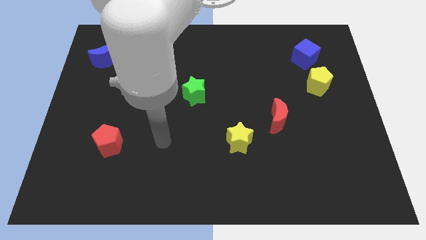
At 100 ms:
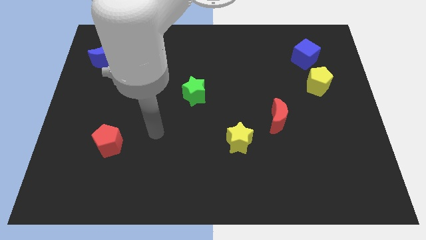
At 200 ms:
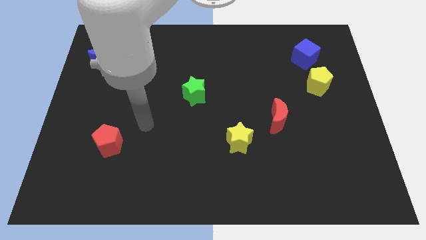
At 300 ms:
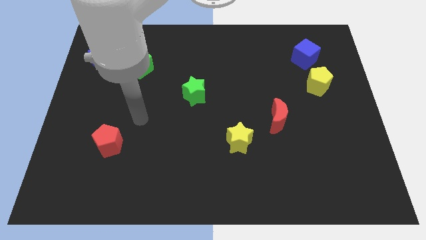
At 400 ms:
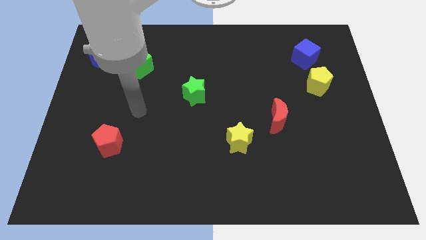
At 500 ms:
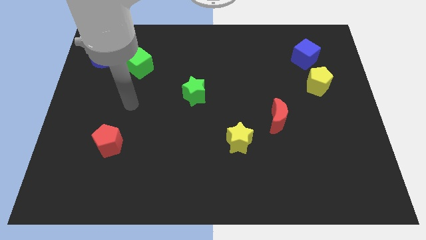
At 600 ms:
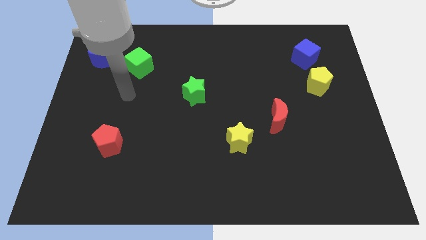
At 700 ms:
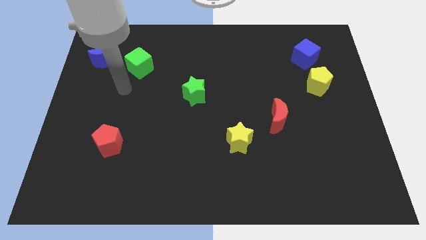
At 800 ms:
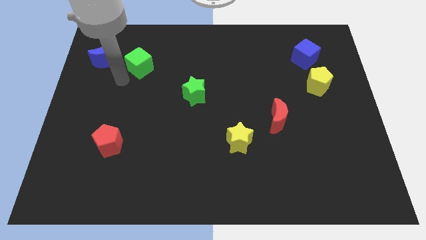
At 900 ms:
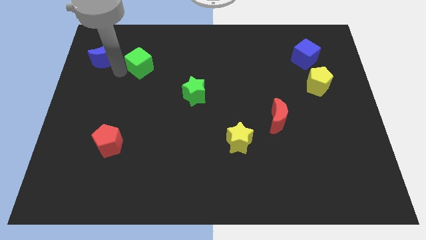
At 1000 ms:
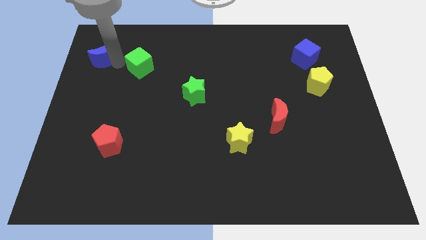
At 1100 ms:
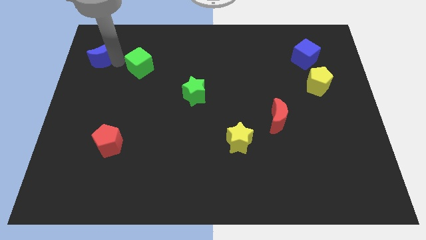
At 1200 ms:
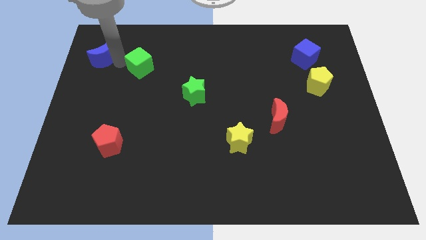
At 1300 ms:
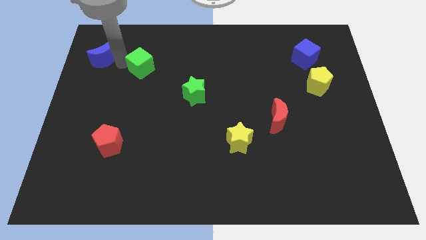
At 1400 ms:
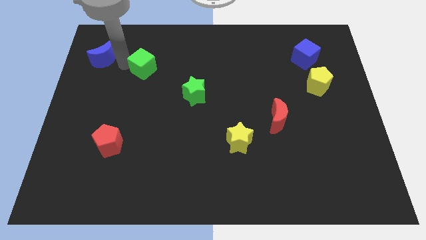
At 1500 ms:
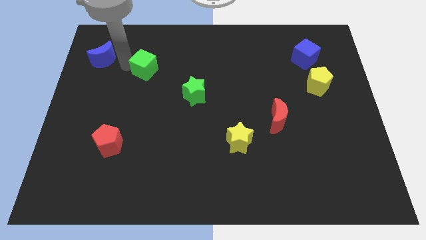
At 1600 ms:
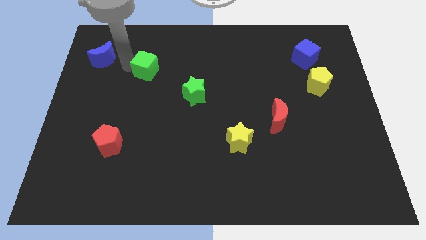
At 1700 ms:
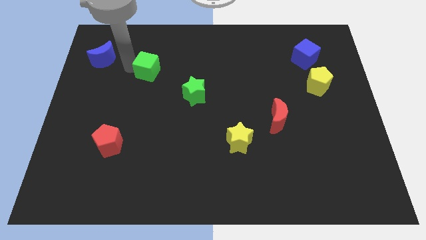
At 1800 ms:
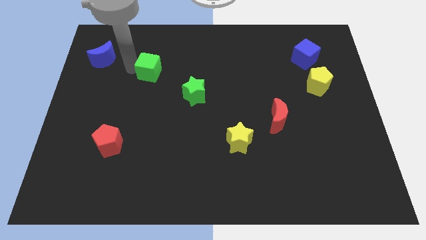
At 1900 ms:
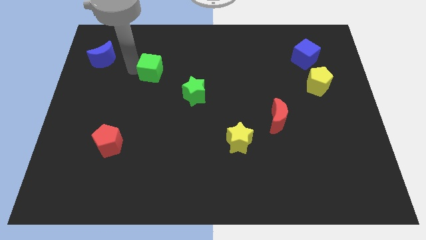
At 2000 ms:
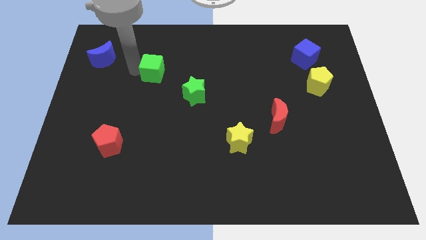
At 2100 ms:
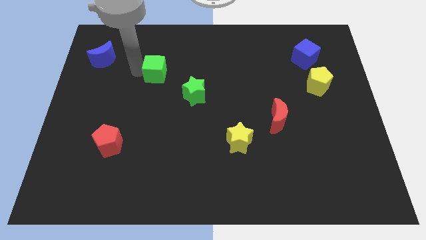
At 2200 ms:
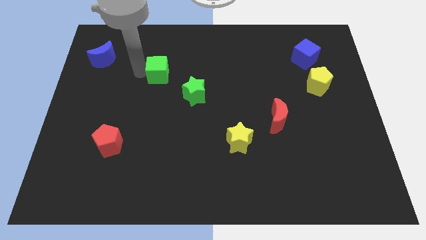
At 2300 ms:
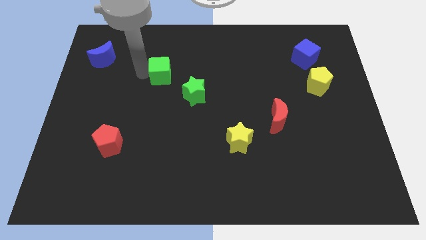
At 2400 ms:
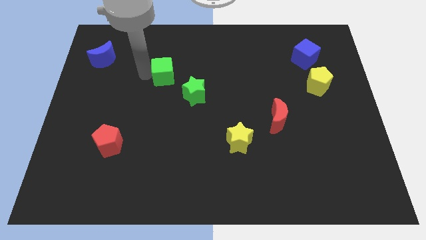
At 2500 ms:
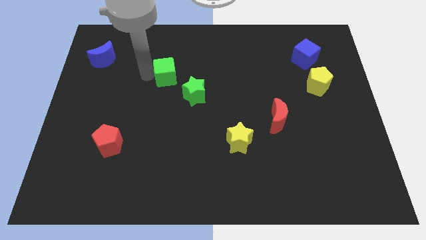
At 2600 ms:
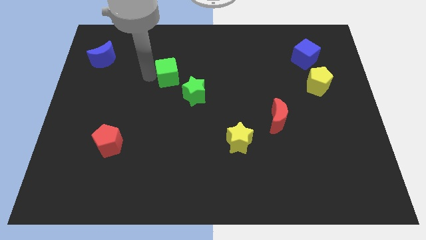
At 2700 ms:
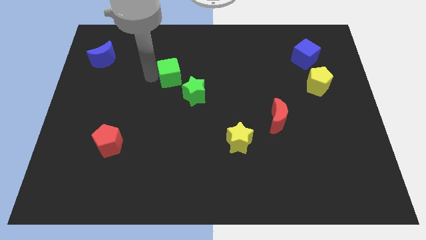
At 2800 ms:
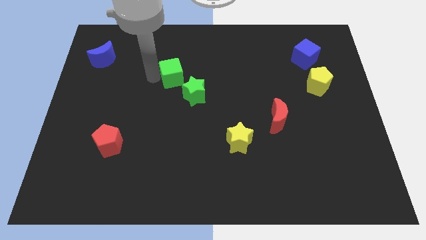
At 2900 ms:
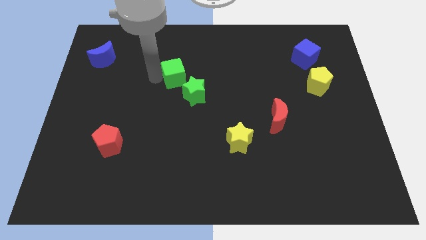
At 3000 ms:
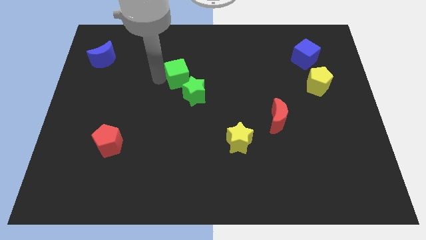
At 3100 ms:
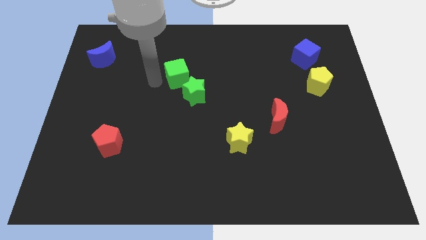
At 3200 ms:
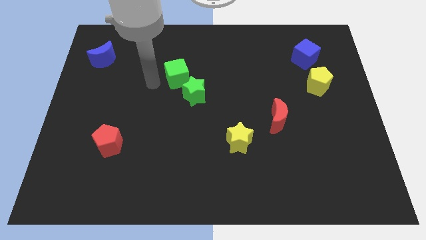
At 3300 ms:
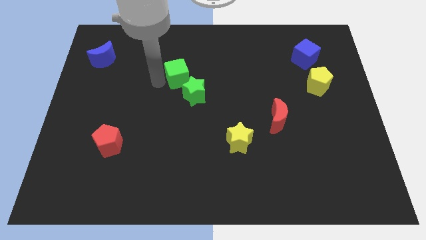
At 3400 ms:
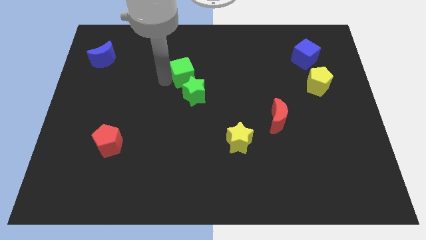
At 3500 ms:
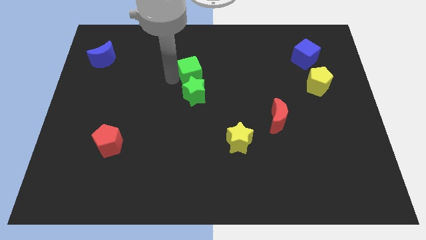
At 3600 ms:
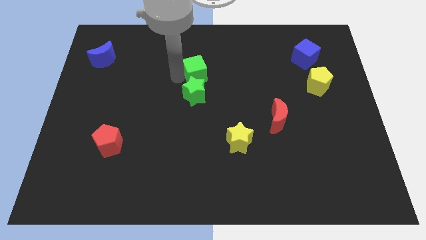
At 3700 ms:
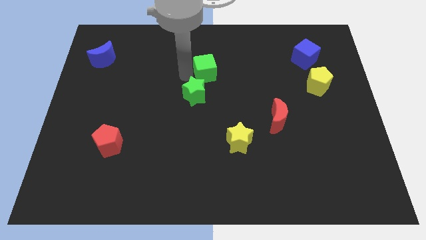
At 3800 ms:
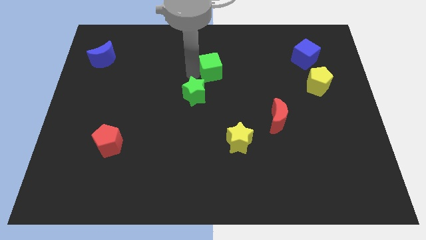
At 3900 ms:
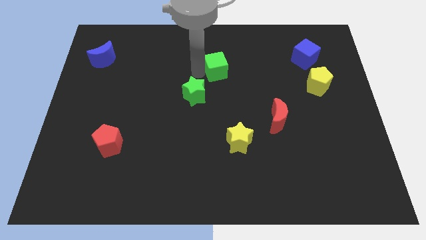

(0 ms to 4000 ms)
slide the green cube to the right

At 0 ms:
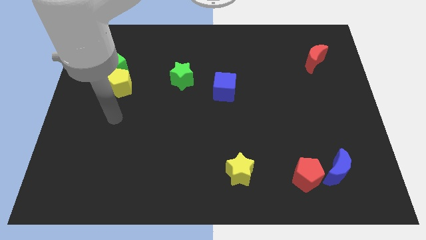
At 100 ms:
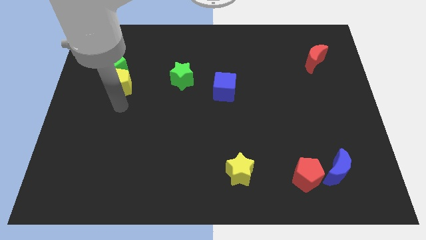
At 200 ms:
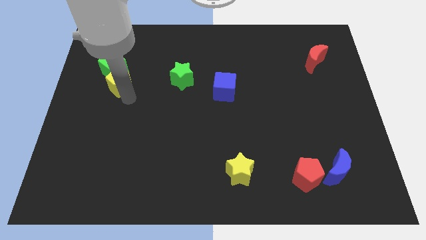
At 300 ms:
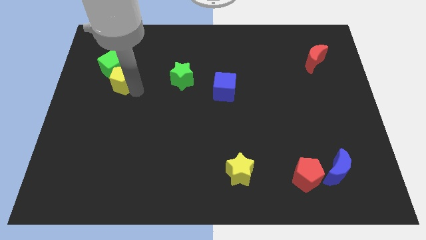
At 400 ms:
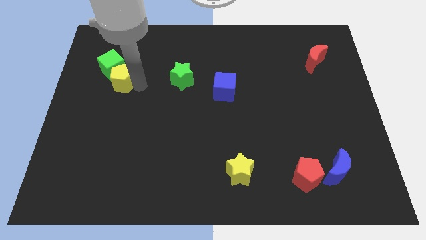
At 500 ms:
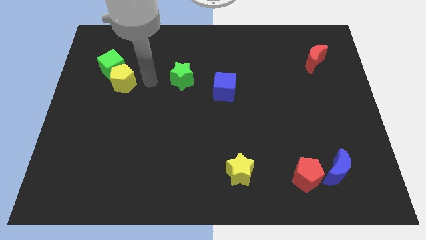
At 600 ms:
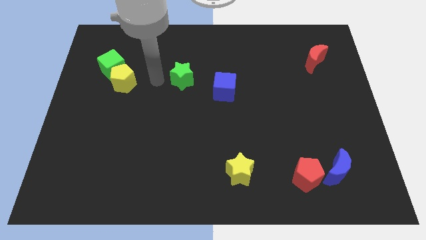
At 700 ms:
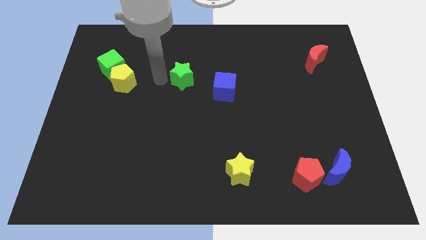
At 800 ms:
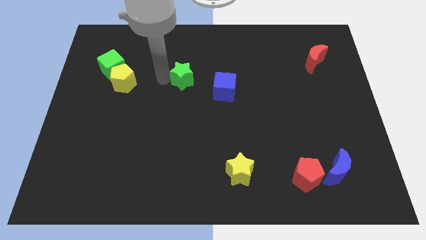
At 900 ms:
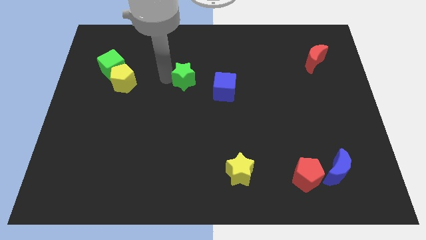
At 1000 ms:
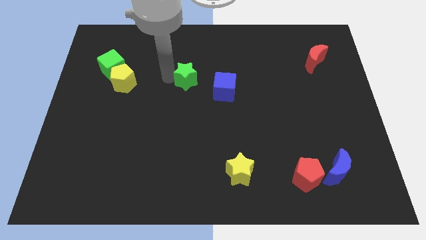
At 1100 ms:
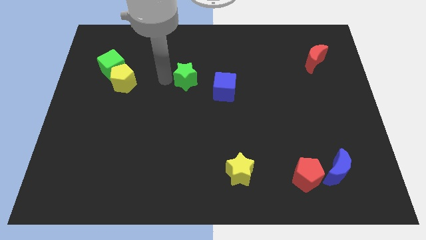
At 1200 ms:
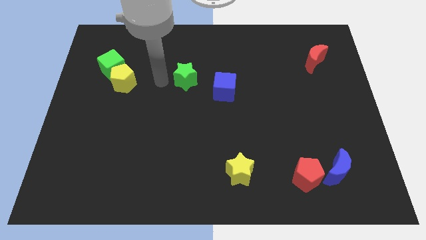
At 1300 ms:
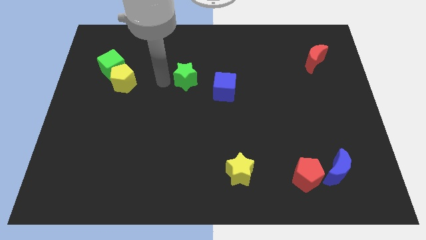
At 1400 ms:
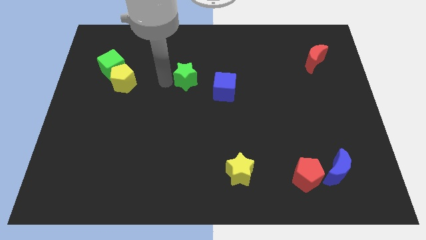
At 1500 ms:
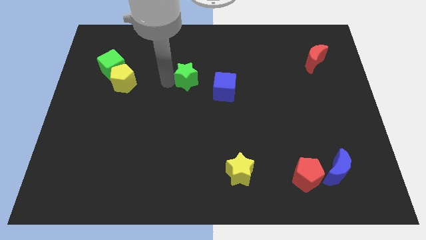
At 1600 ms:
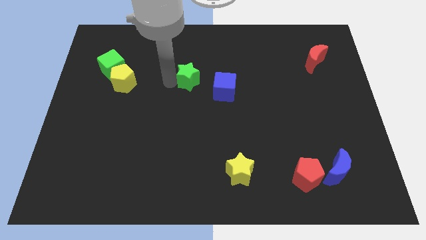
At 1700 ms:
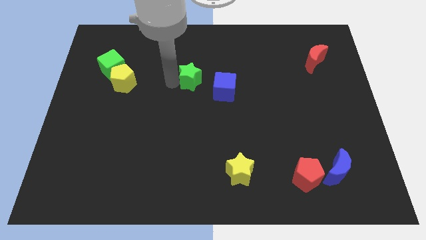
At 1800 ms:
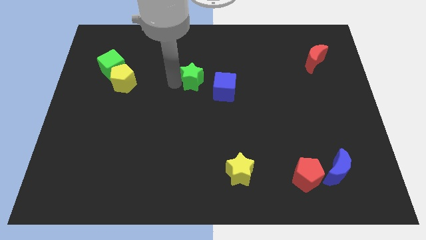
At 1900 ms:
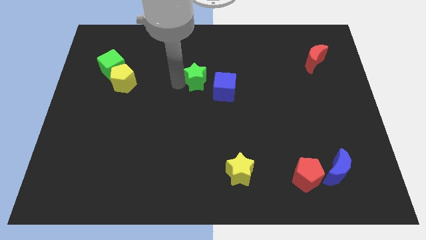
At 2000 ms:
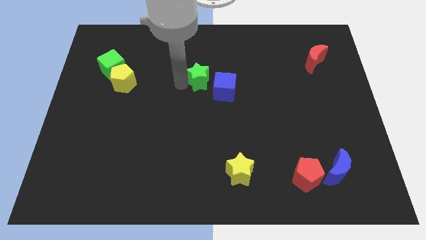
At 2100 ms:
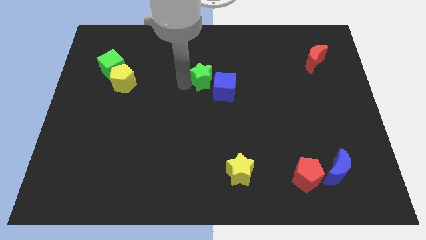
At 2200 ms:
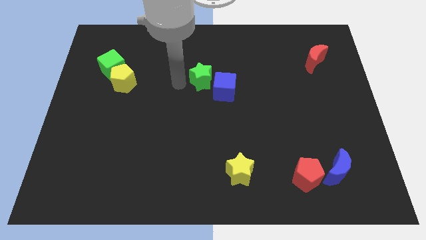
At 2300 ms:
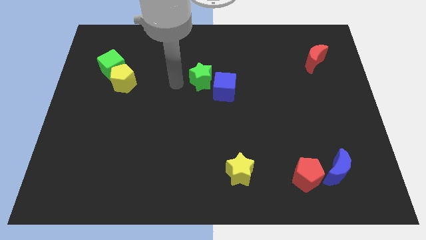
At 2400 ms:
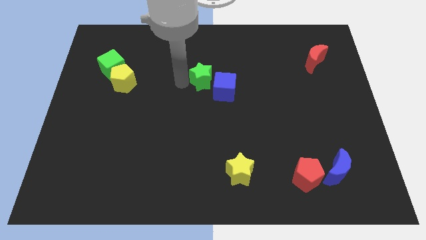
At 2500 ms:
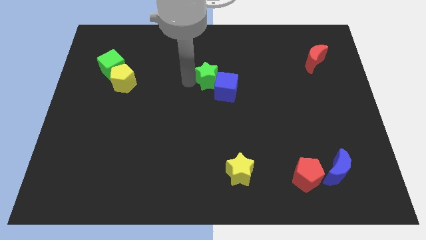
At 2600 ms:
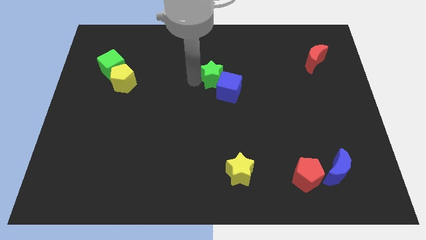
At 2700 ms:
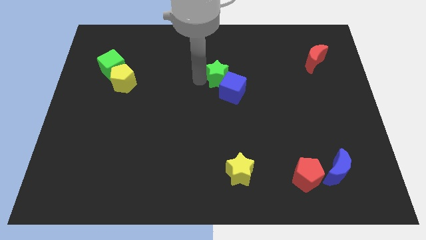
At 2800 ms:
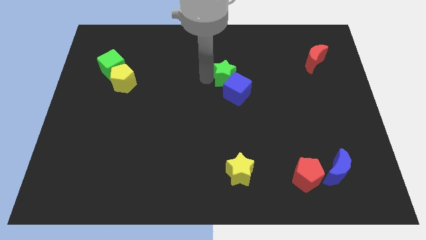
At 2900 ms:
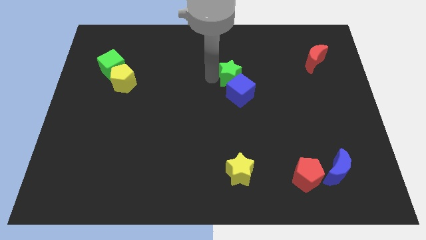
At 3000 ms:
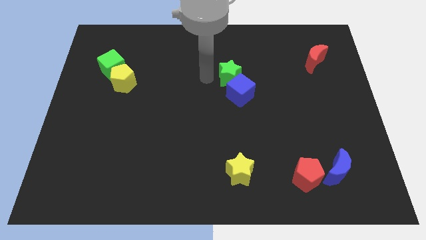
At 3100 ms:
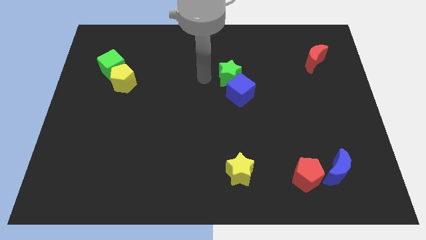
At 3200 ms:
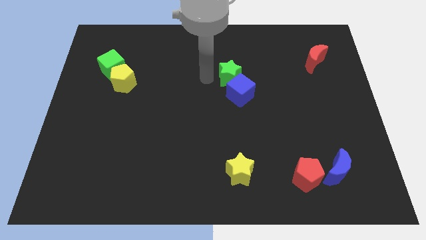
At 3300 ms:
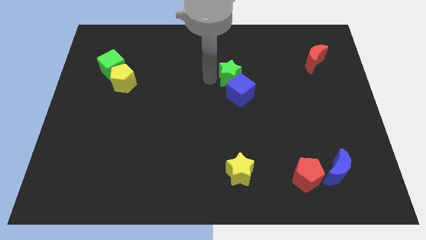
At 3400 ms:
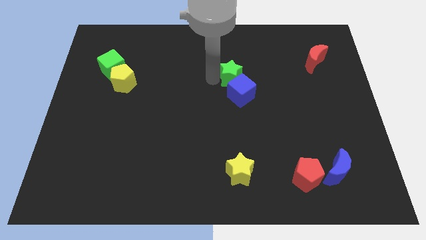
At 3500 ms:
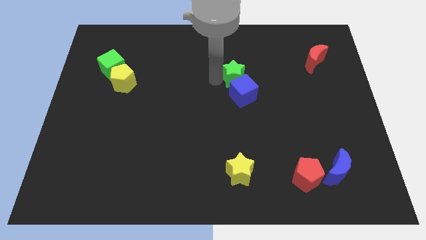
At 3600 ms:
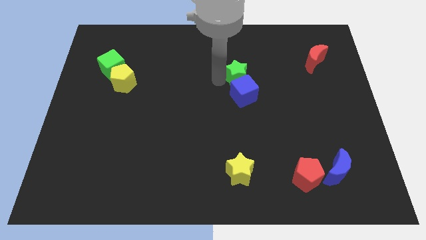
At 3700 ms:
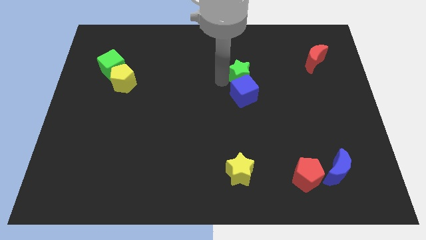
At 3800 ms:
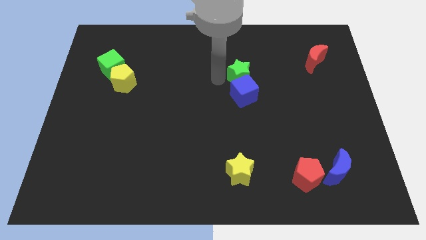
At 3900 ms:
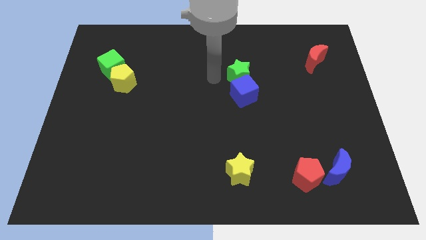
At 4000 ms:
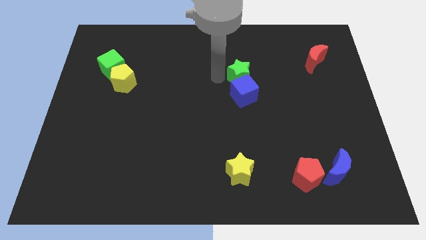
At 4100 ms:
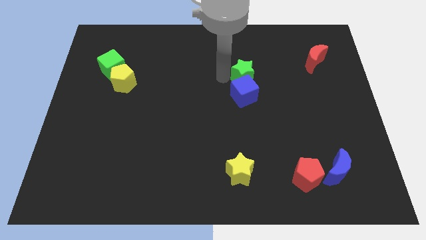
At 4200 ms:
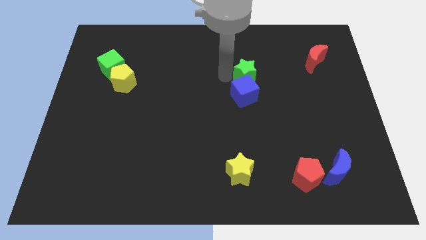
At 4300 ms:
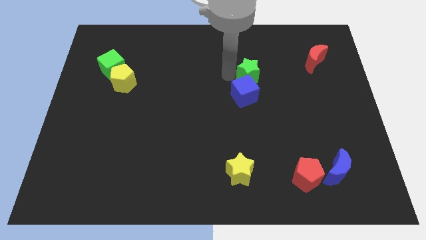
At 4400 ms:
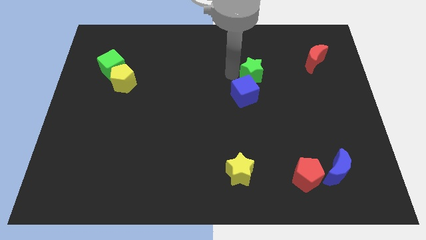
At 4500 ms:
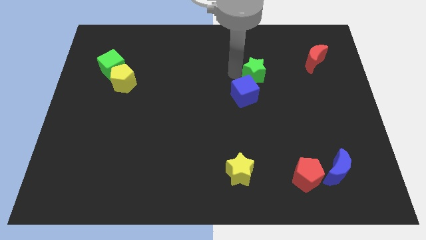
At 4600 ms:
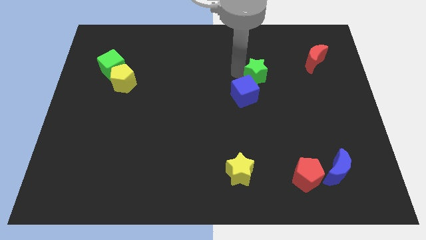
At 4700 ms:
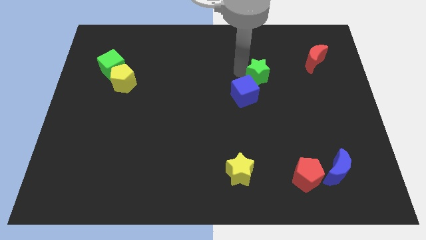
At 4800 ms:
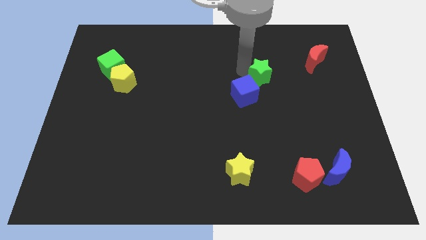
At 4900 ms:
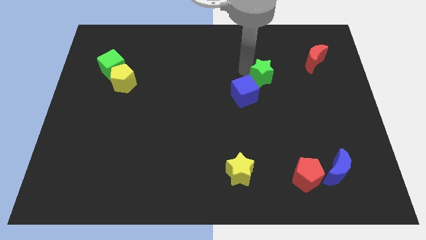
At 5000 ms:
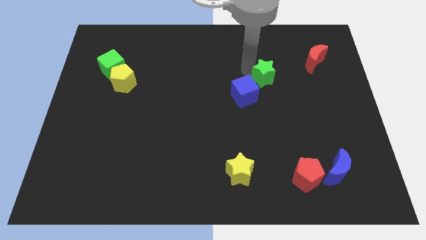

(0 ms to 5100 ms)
move the green star right
